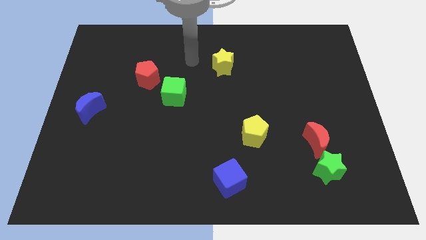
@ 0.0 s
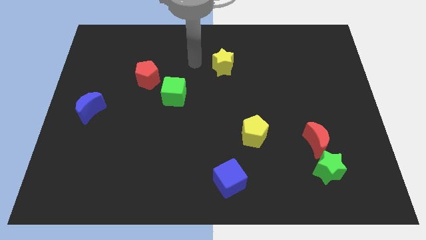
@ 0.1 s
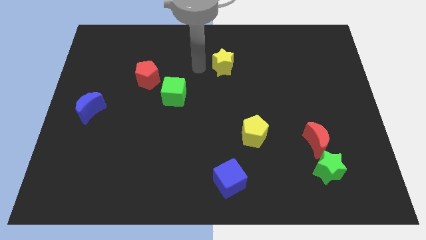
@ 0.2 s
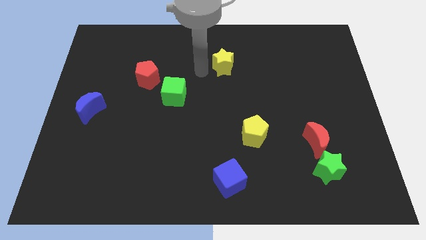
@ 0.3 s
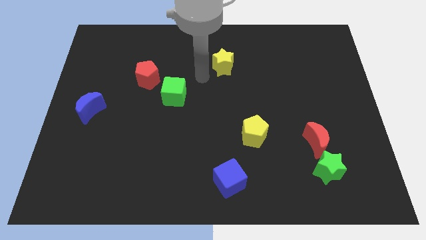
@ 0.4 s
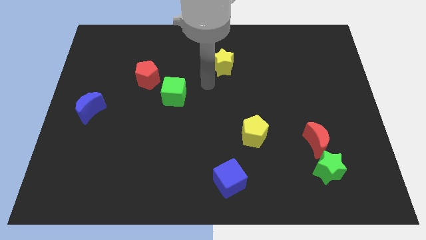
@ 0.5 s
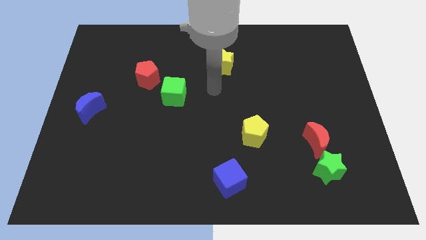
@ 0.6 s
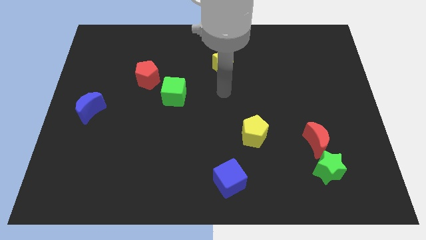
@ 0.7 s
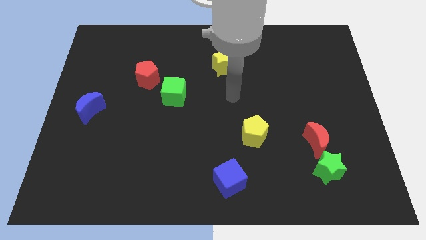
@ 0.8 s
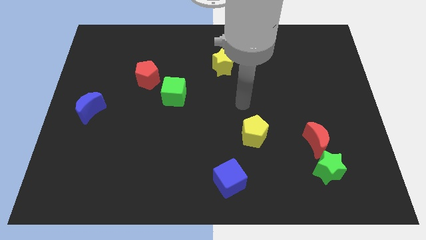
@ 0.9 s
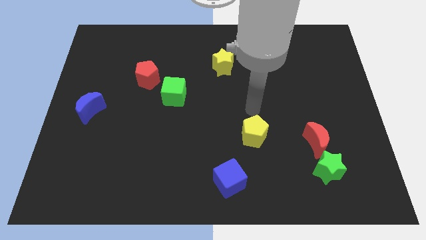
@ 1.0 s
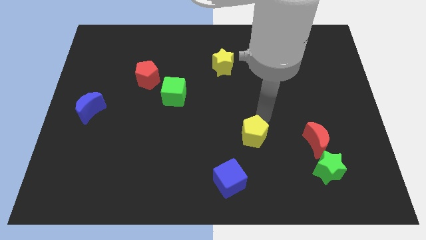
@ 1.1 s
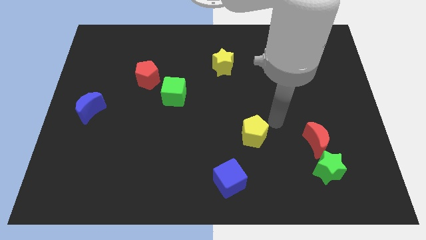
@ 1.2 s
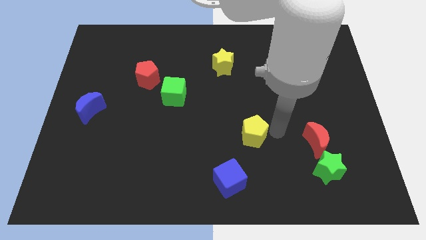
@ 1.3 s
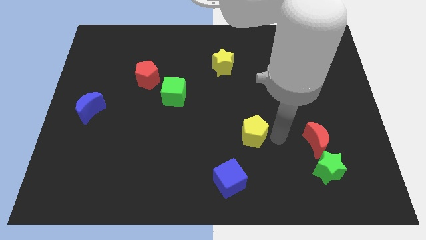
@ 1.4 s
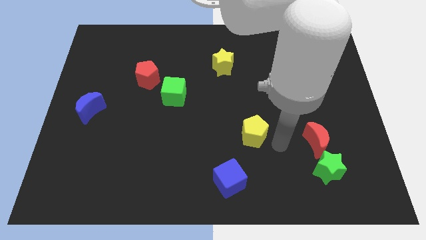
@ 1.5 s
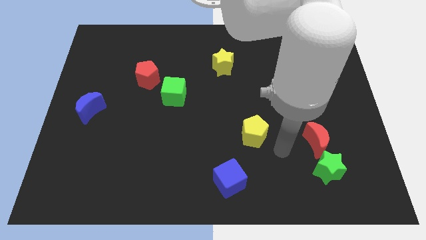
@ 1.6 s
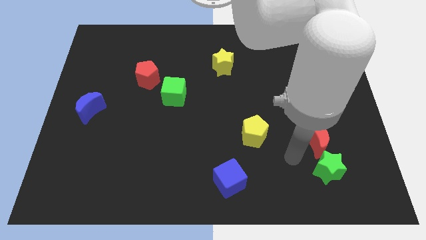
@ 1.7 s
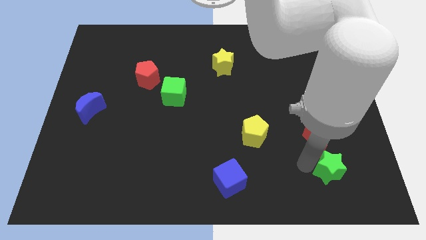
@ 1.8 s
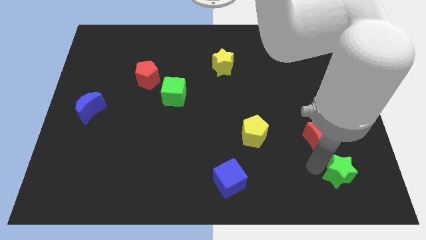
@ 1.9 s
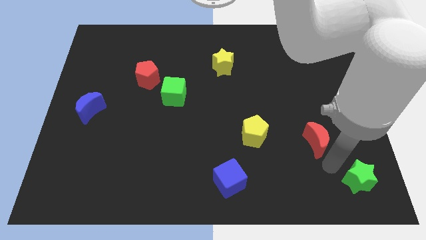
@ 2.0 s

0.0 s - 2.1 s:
move the red moon away from the green star

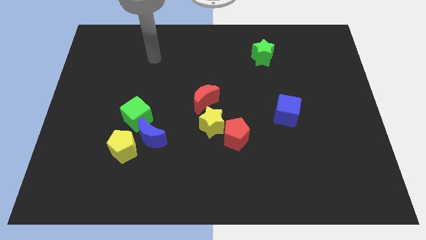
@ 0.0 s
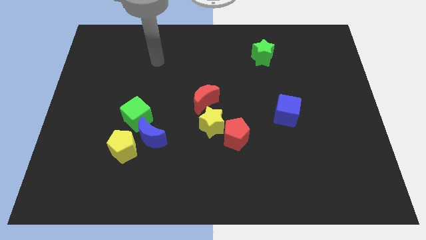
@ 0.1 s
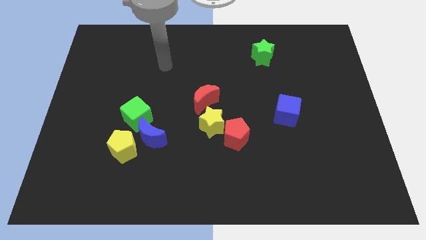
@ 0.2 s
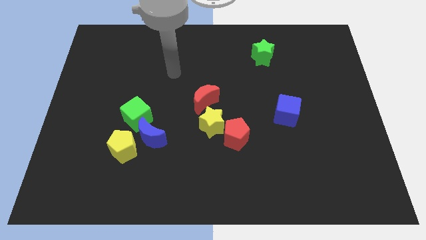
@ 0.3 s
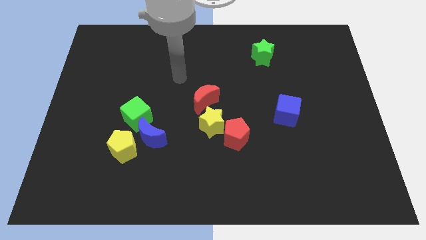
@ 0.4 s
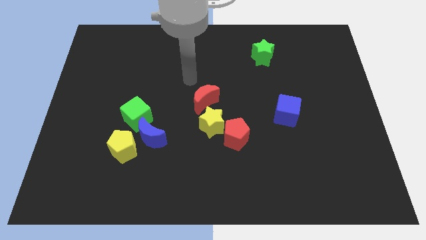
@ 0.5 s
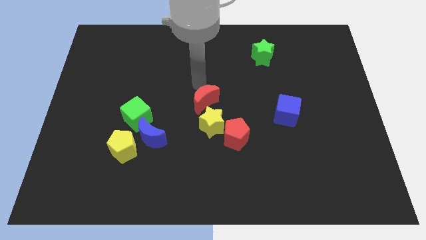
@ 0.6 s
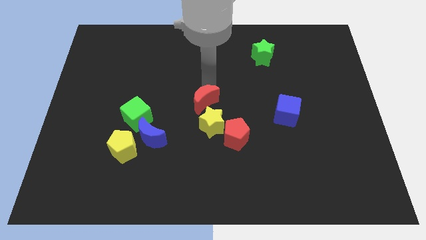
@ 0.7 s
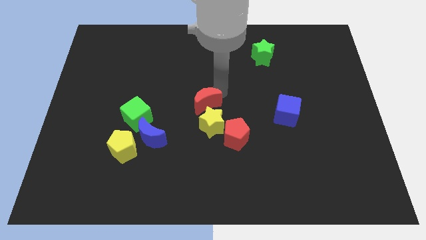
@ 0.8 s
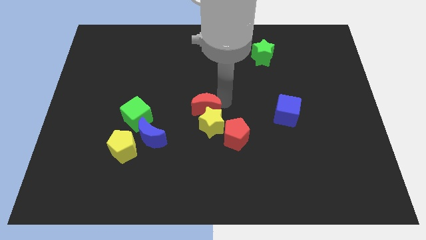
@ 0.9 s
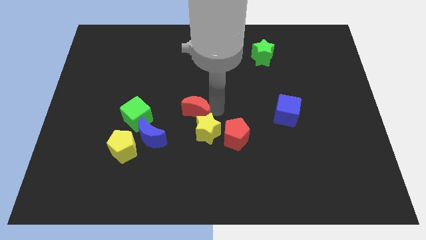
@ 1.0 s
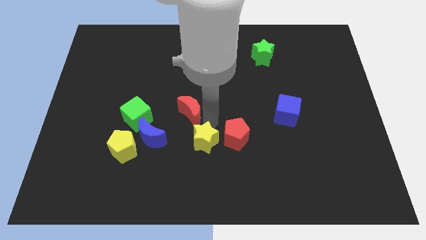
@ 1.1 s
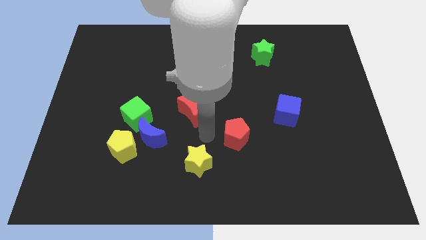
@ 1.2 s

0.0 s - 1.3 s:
pull the red pentagon apart from the yellow star

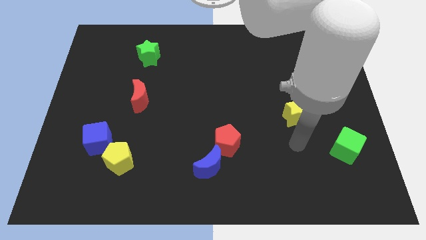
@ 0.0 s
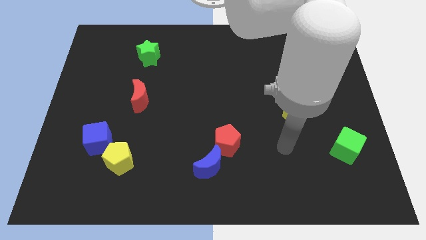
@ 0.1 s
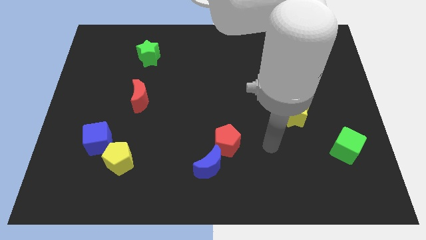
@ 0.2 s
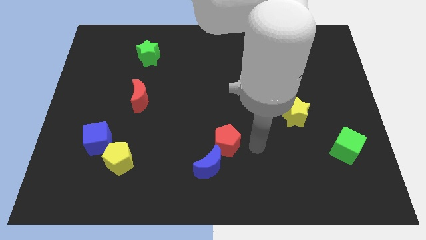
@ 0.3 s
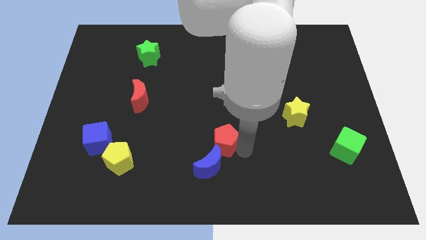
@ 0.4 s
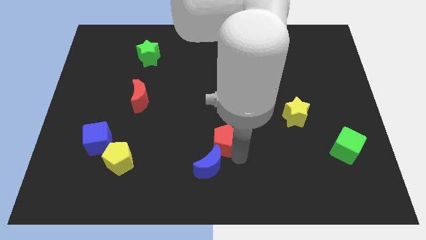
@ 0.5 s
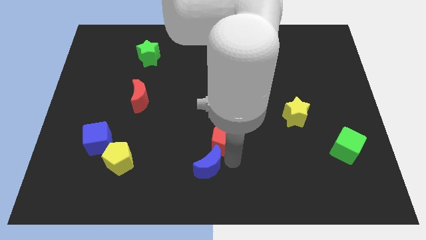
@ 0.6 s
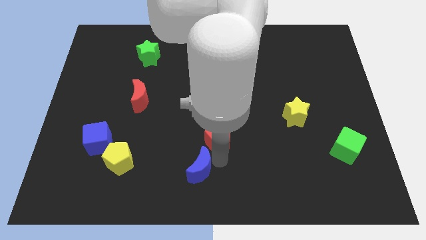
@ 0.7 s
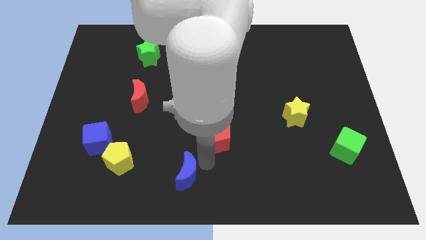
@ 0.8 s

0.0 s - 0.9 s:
separate the red pentagon from the blue moon

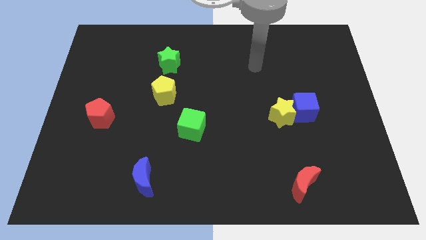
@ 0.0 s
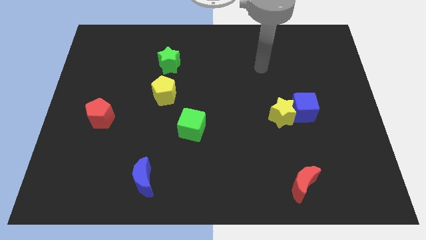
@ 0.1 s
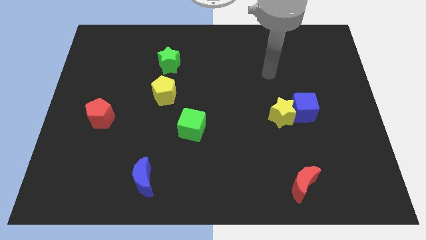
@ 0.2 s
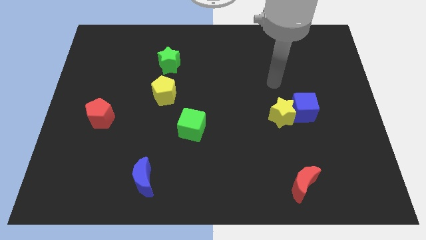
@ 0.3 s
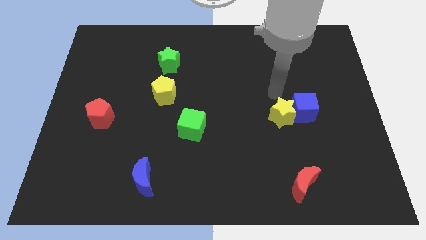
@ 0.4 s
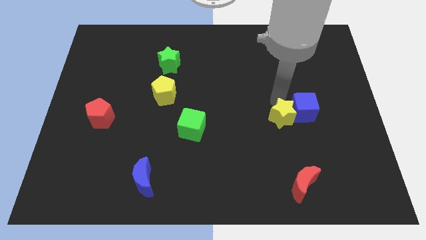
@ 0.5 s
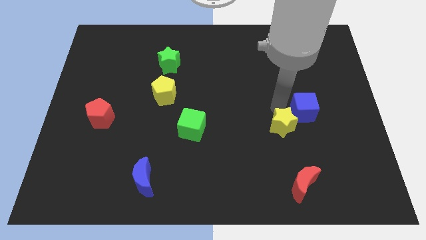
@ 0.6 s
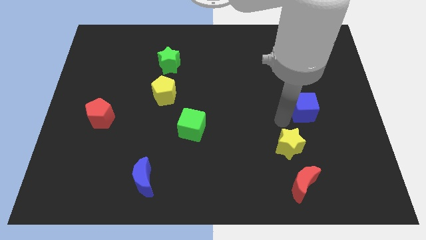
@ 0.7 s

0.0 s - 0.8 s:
move the blue cube away from the yellow star

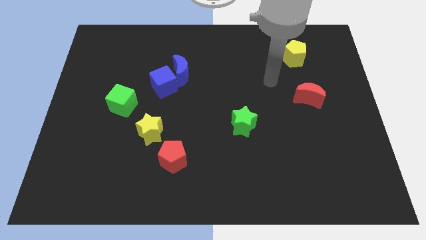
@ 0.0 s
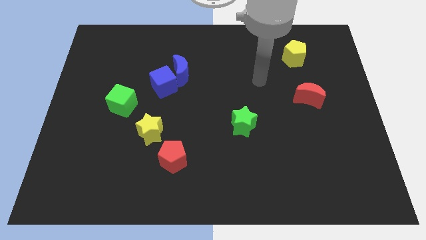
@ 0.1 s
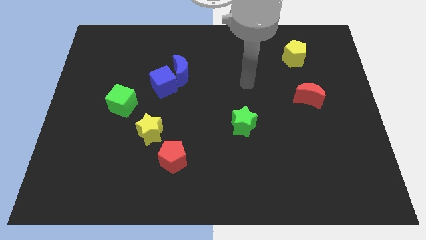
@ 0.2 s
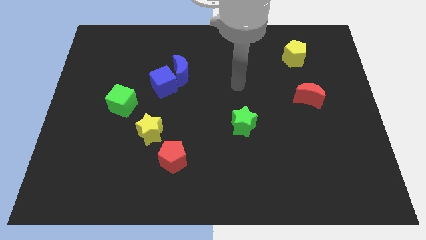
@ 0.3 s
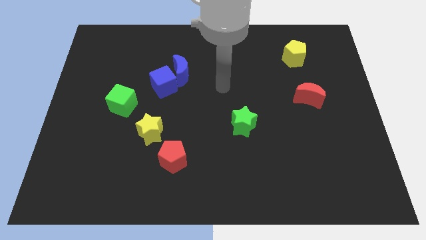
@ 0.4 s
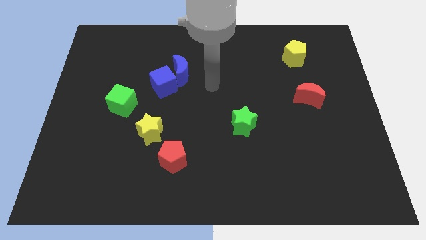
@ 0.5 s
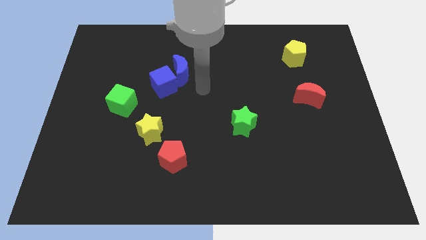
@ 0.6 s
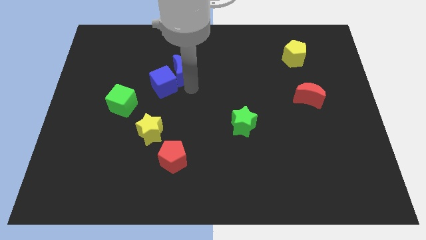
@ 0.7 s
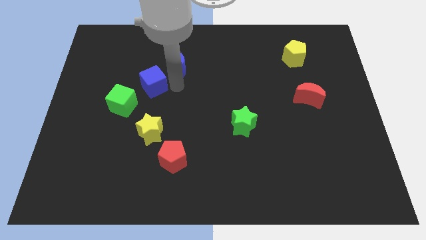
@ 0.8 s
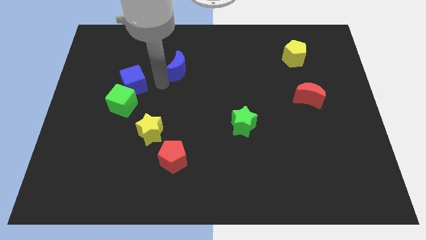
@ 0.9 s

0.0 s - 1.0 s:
separate the blue moon from the blue cube

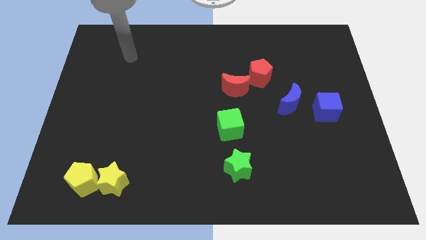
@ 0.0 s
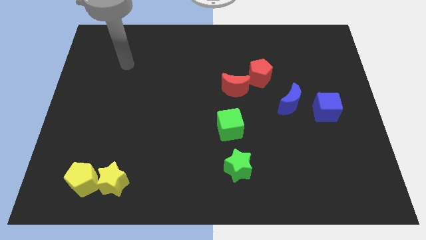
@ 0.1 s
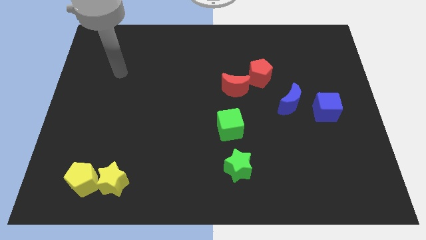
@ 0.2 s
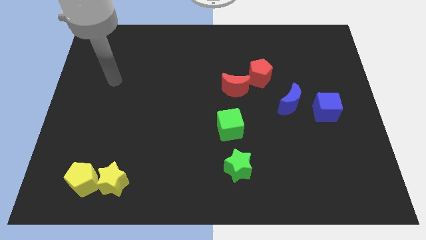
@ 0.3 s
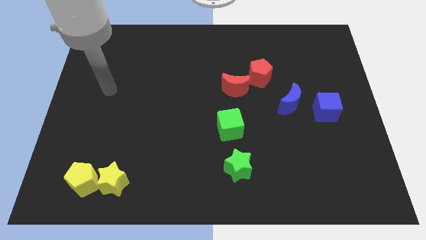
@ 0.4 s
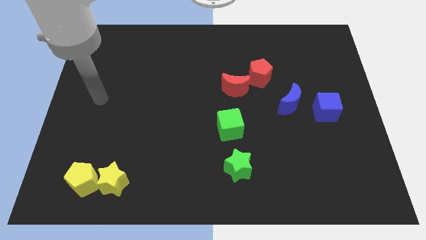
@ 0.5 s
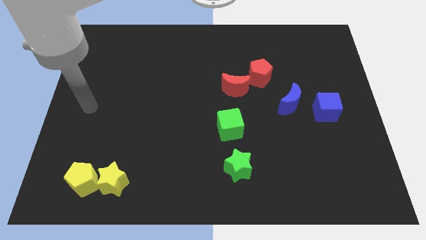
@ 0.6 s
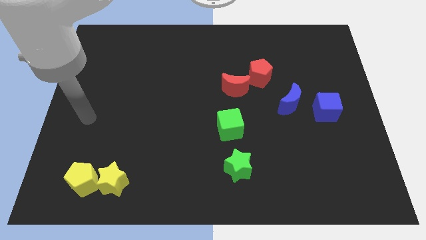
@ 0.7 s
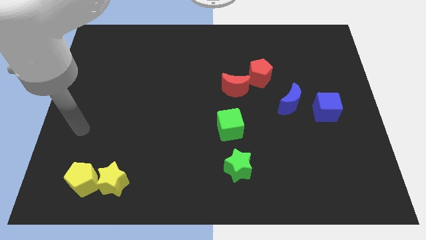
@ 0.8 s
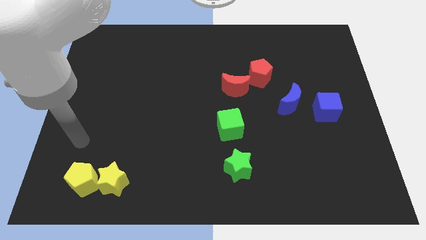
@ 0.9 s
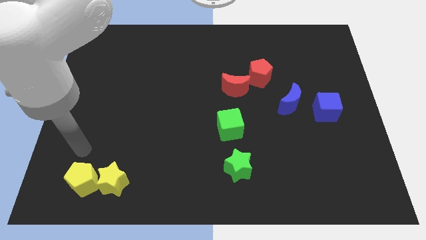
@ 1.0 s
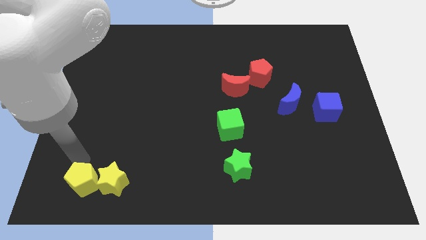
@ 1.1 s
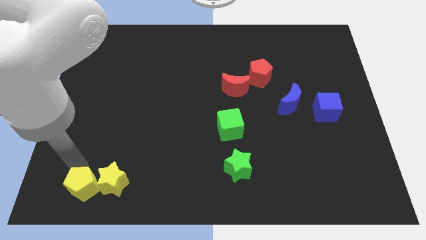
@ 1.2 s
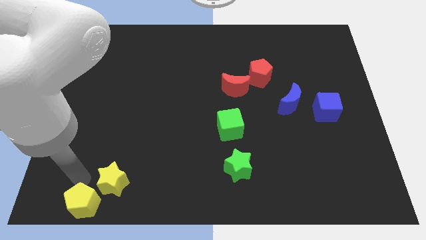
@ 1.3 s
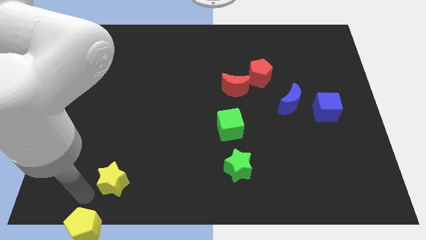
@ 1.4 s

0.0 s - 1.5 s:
move the yellow star away from the yellow pentagon

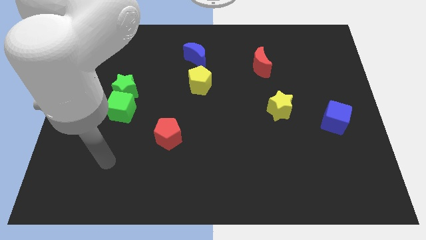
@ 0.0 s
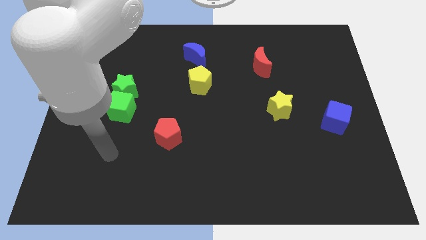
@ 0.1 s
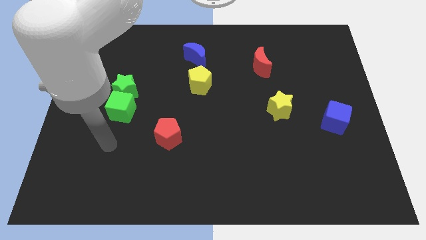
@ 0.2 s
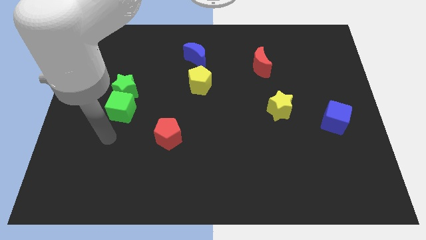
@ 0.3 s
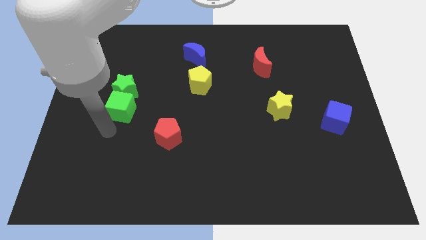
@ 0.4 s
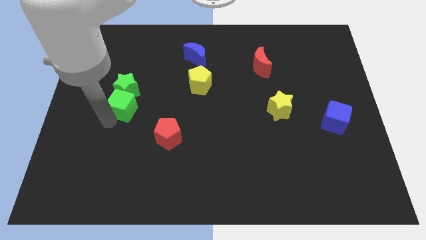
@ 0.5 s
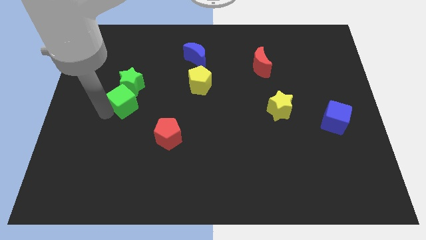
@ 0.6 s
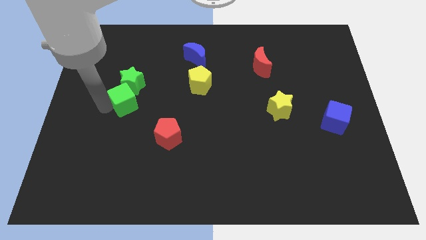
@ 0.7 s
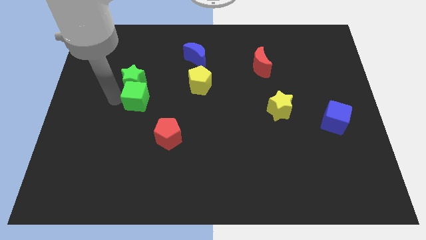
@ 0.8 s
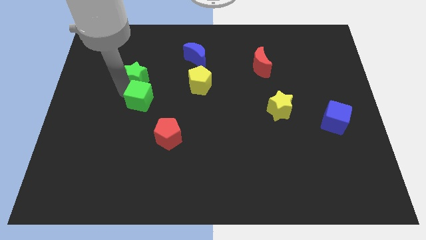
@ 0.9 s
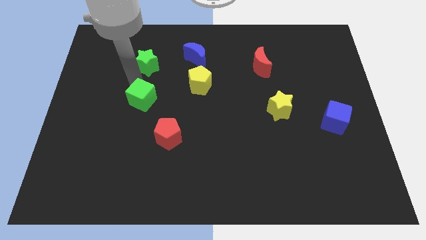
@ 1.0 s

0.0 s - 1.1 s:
pull the green cube apart from the green star

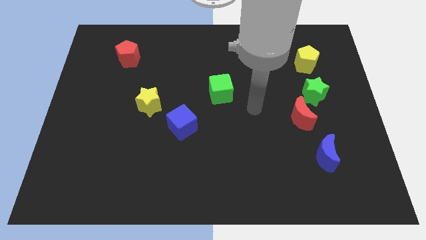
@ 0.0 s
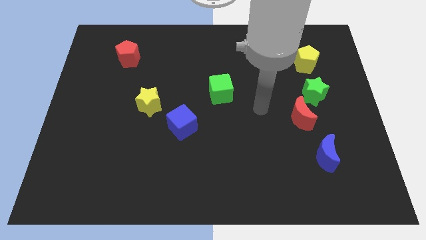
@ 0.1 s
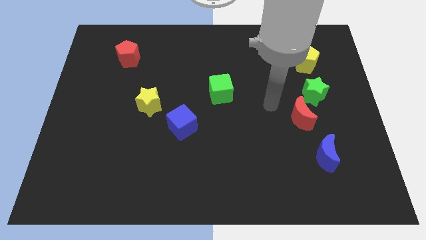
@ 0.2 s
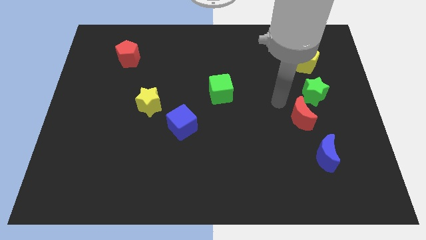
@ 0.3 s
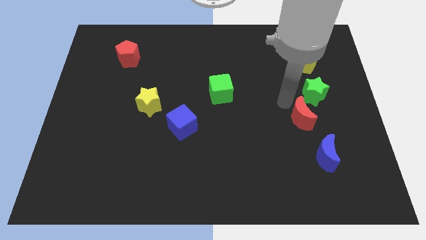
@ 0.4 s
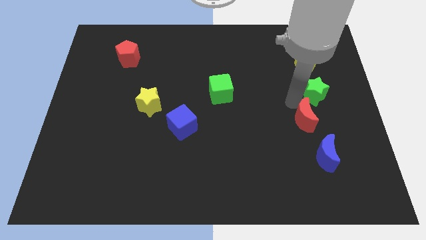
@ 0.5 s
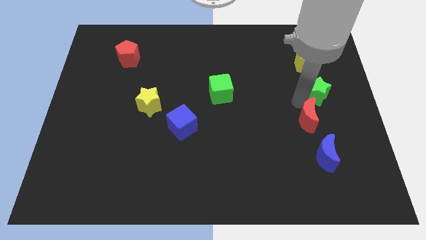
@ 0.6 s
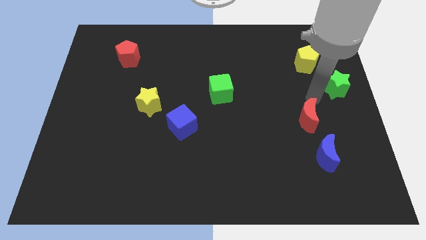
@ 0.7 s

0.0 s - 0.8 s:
pull the red moon apart from the green star
